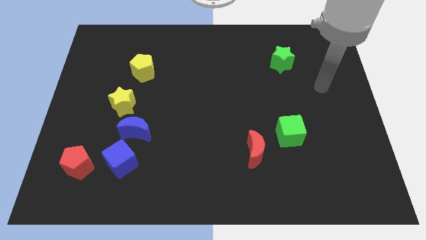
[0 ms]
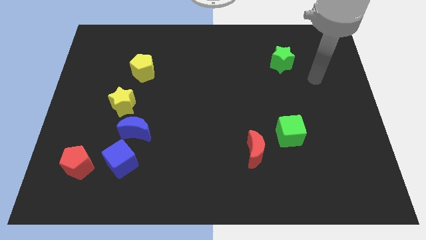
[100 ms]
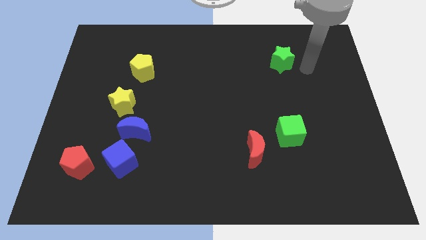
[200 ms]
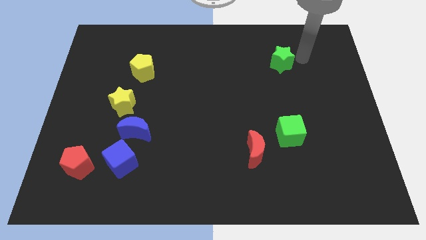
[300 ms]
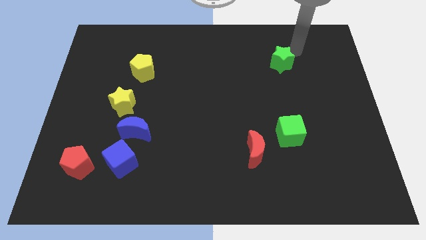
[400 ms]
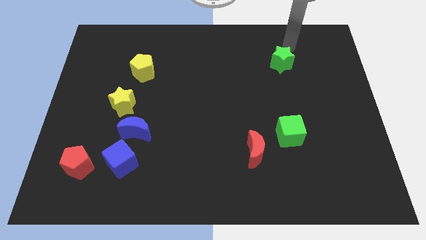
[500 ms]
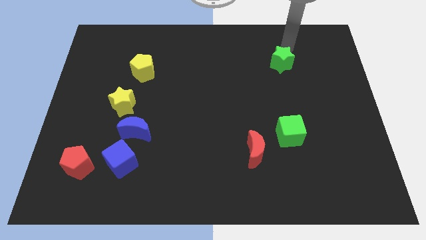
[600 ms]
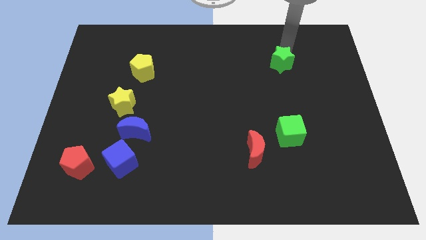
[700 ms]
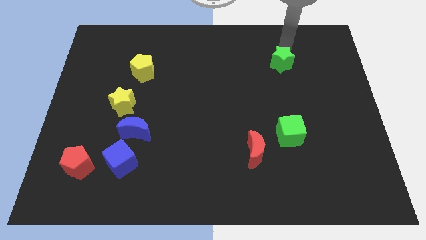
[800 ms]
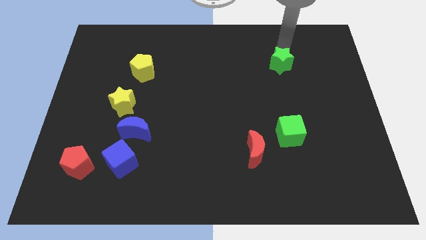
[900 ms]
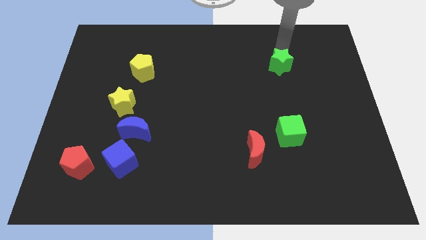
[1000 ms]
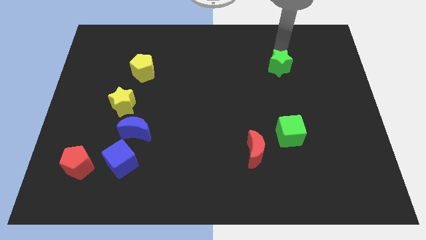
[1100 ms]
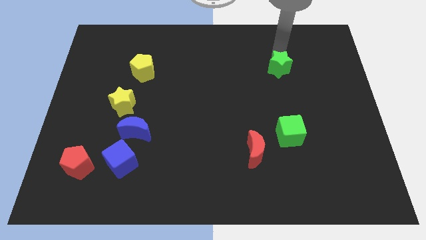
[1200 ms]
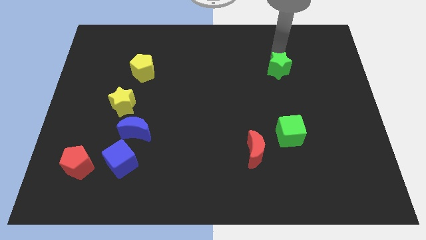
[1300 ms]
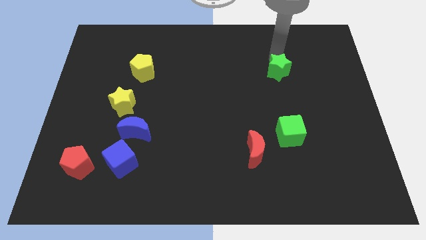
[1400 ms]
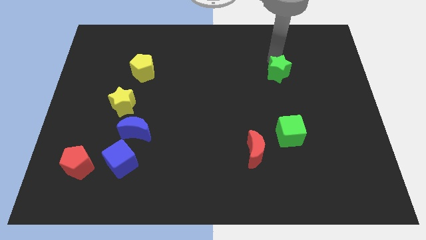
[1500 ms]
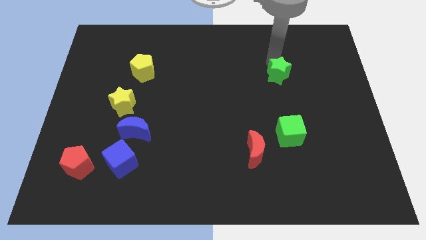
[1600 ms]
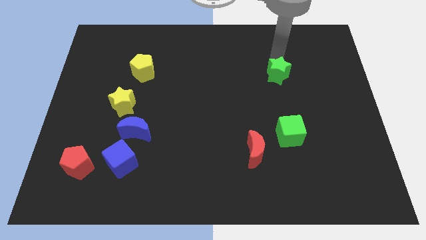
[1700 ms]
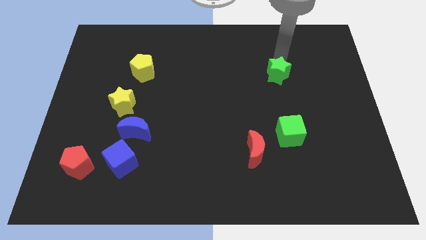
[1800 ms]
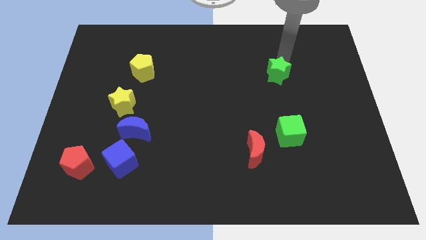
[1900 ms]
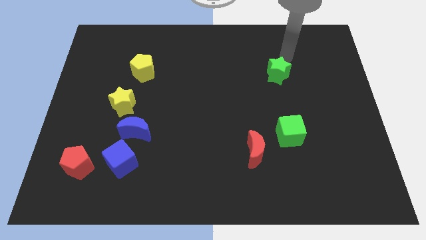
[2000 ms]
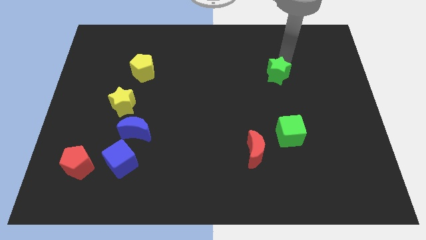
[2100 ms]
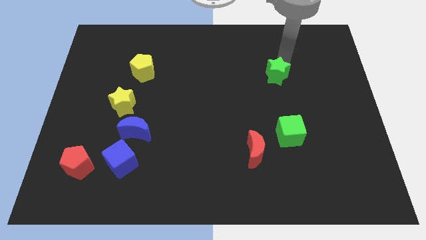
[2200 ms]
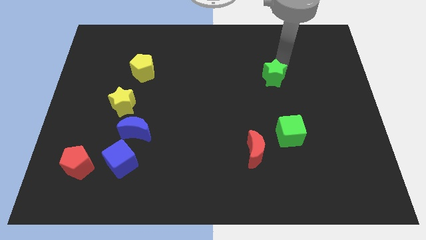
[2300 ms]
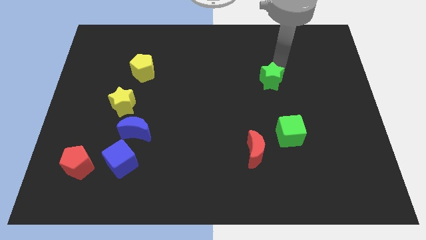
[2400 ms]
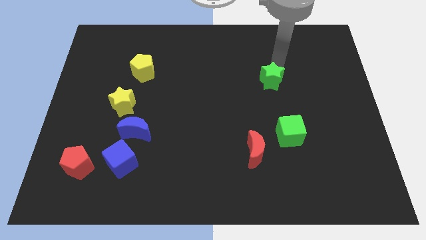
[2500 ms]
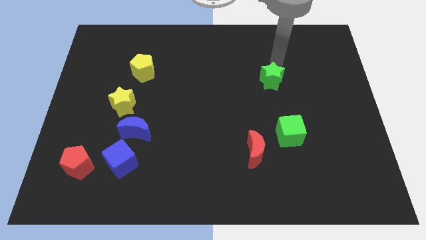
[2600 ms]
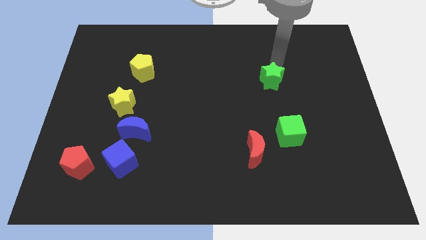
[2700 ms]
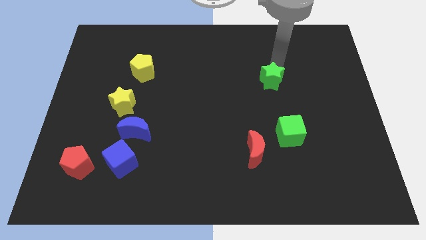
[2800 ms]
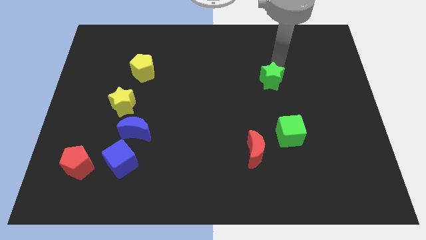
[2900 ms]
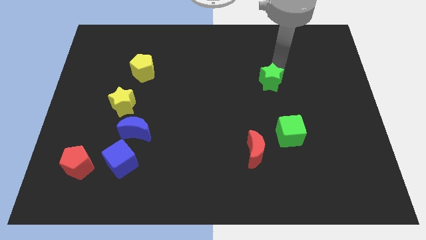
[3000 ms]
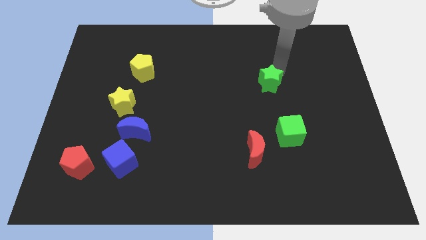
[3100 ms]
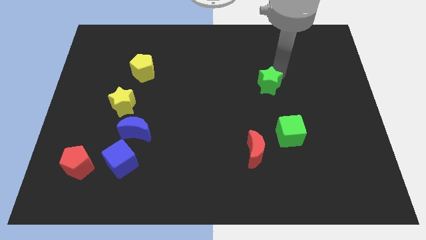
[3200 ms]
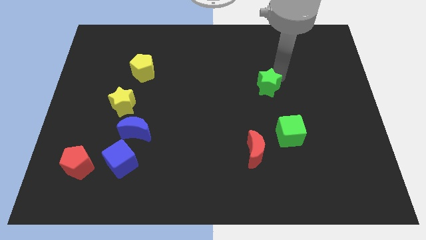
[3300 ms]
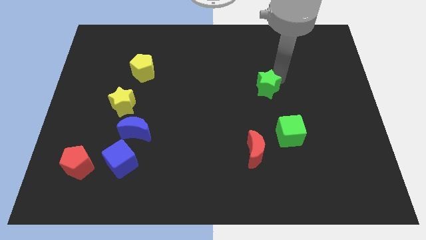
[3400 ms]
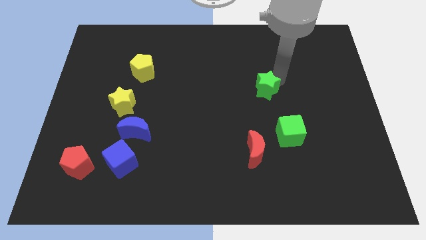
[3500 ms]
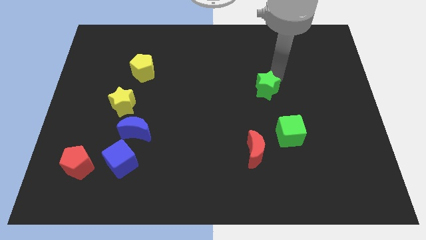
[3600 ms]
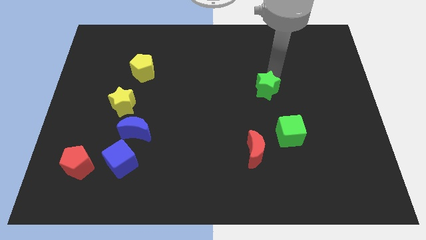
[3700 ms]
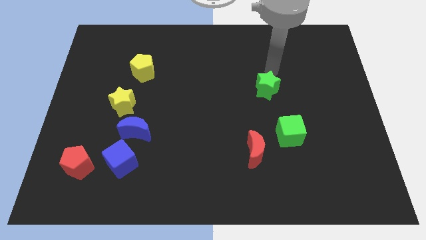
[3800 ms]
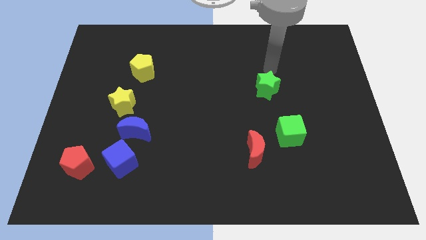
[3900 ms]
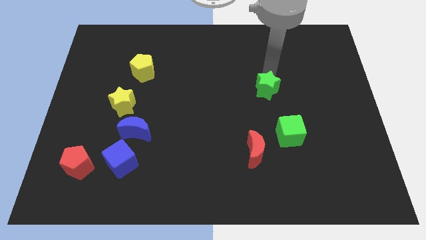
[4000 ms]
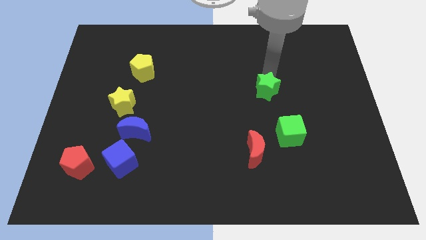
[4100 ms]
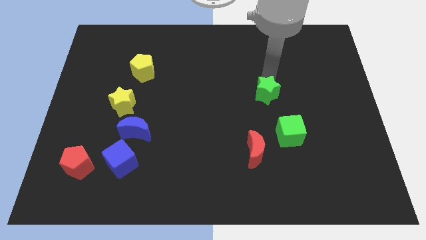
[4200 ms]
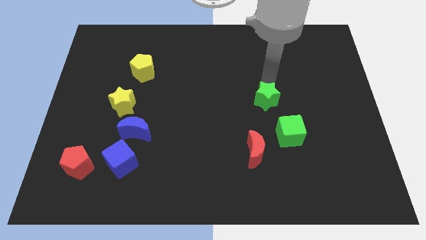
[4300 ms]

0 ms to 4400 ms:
move the green star to the top left of the green cube

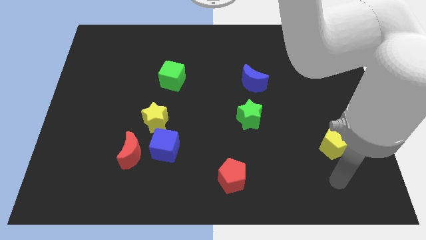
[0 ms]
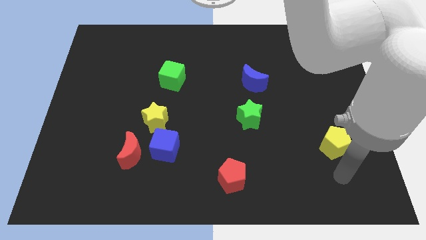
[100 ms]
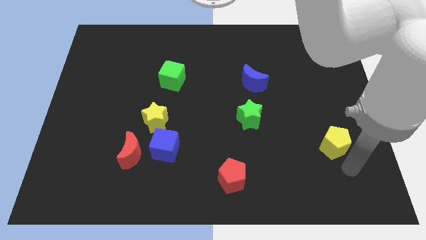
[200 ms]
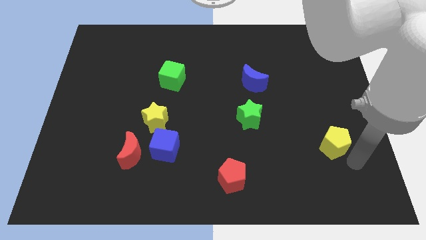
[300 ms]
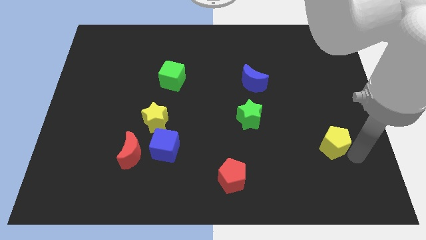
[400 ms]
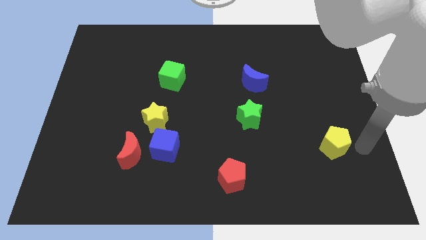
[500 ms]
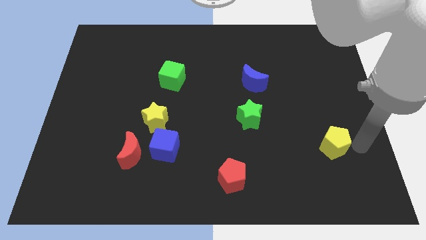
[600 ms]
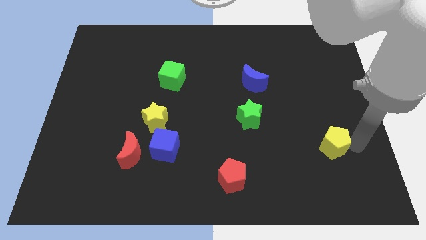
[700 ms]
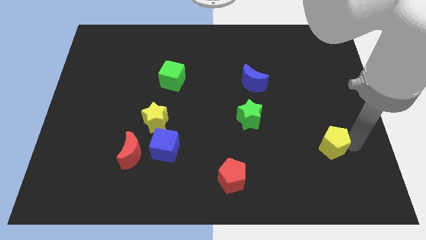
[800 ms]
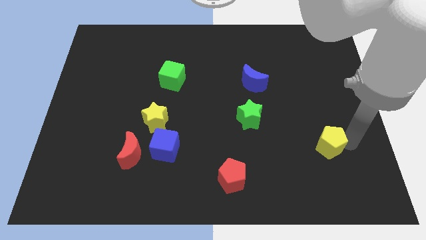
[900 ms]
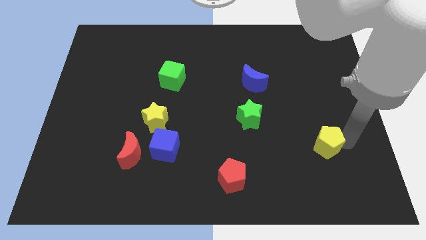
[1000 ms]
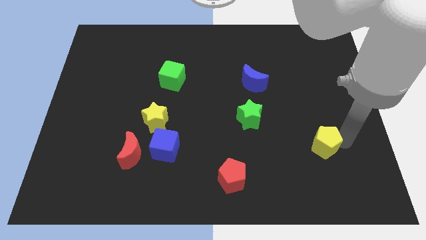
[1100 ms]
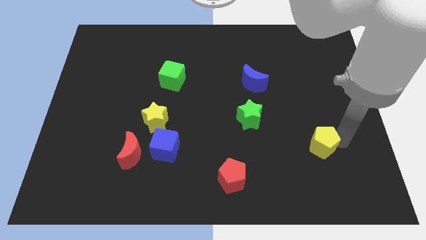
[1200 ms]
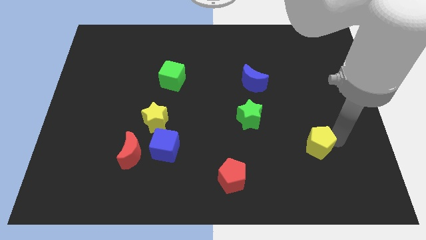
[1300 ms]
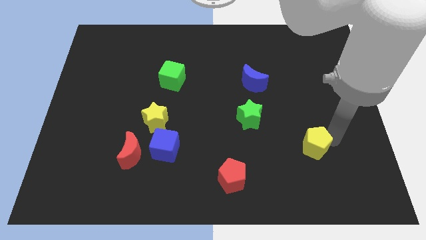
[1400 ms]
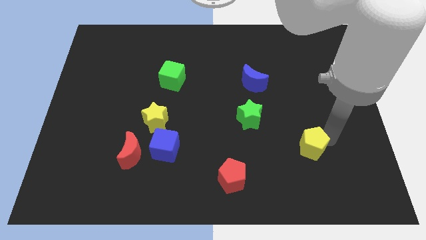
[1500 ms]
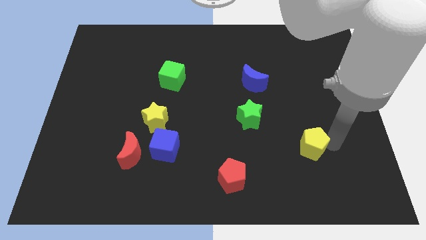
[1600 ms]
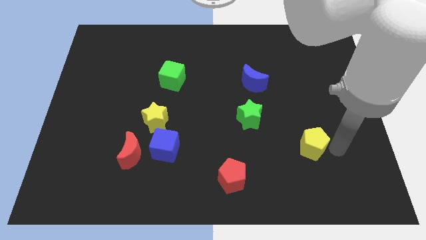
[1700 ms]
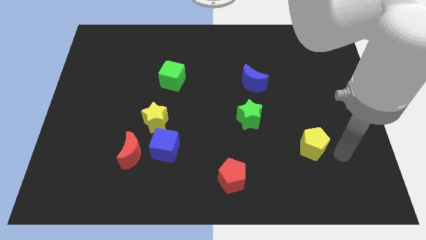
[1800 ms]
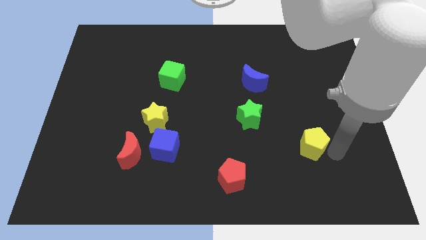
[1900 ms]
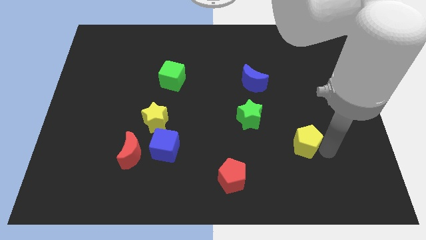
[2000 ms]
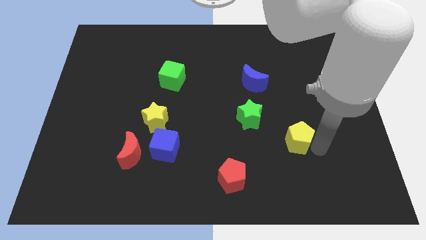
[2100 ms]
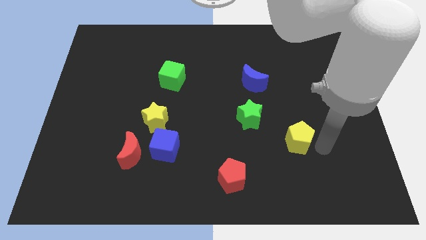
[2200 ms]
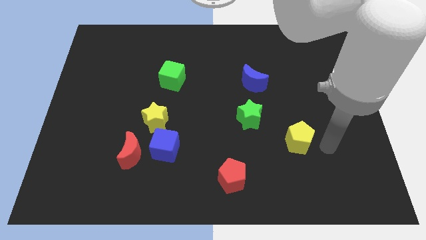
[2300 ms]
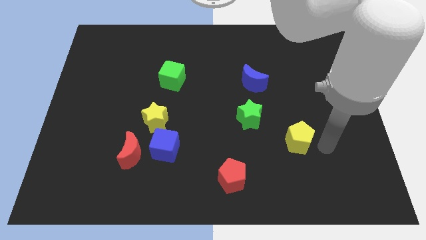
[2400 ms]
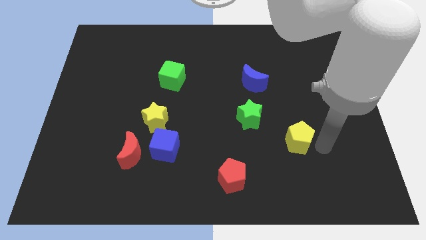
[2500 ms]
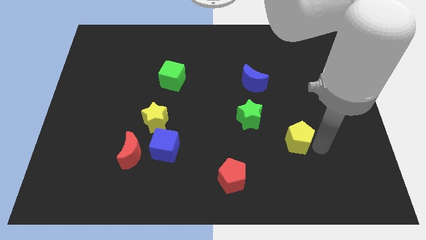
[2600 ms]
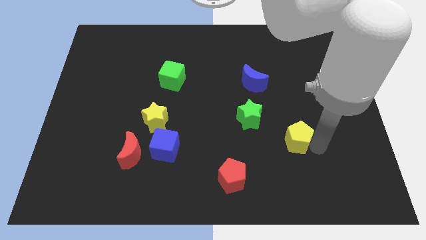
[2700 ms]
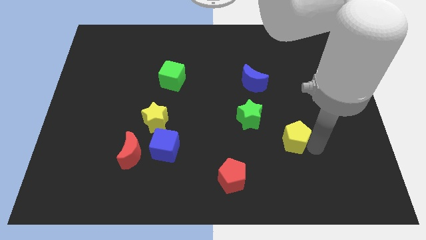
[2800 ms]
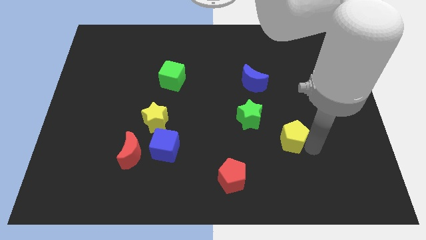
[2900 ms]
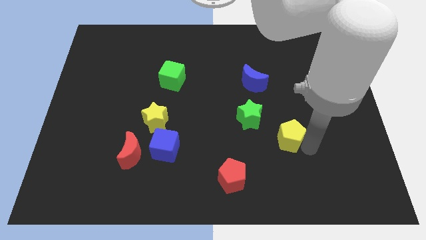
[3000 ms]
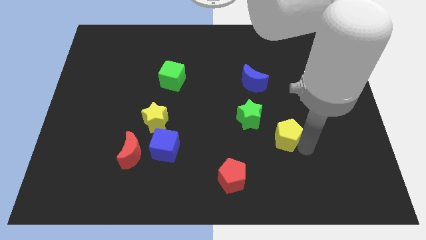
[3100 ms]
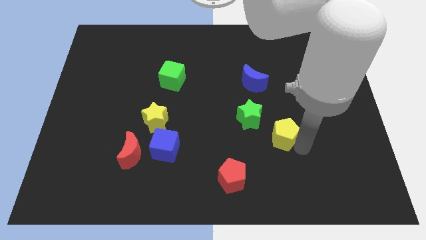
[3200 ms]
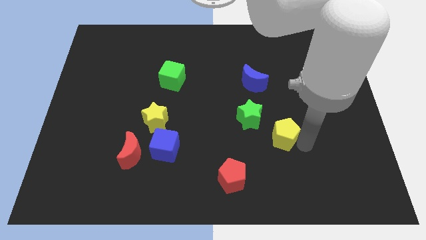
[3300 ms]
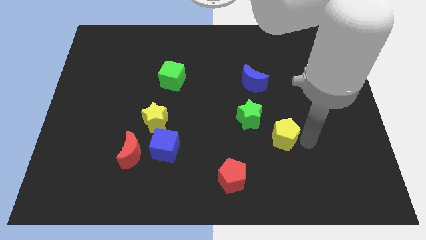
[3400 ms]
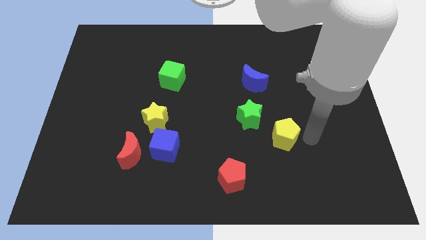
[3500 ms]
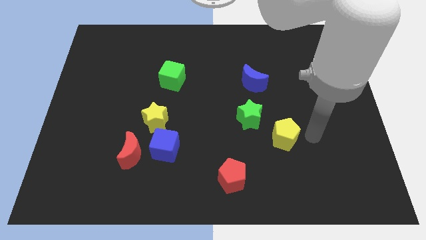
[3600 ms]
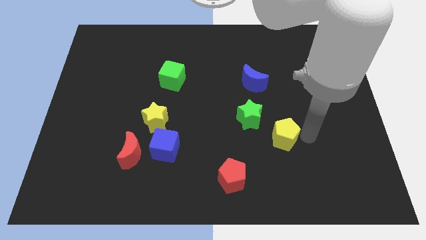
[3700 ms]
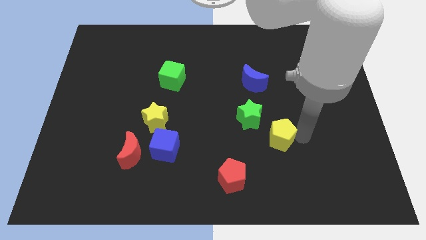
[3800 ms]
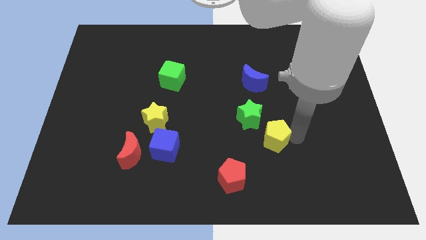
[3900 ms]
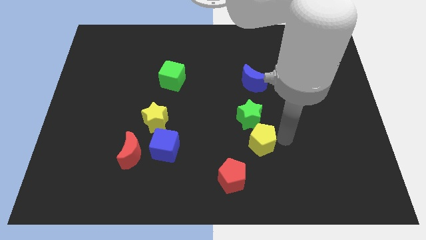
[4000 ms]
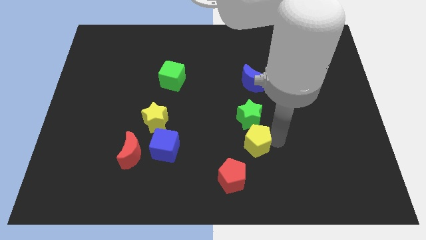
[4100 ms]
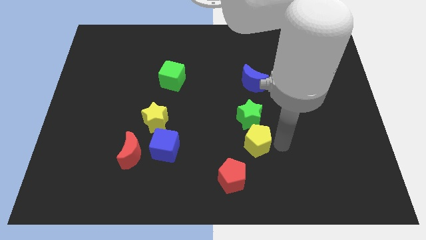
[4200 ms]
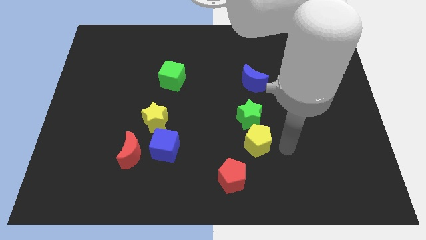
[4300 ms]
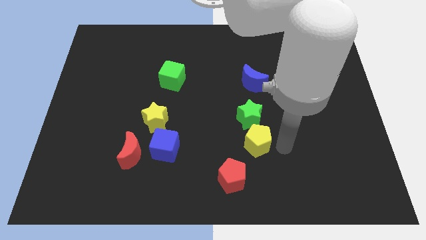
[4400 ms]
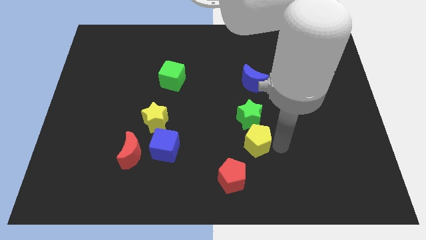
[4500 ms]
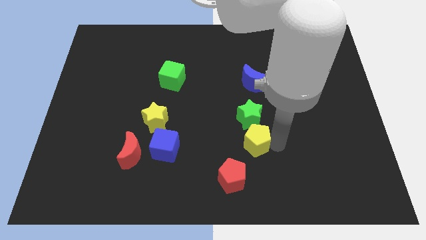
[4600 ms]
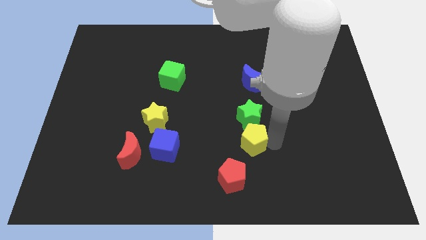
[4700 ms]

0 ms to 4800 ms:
move the yellow pentagon to the bottom left side of the green star
